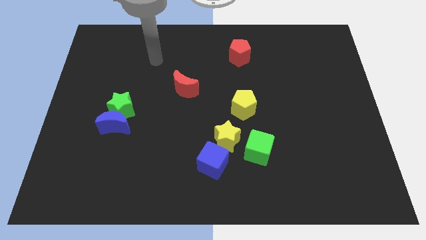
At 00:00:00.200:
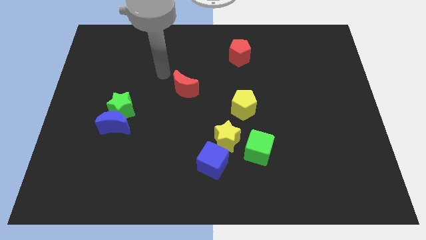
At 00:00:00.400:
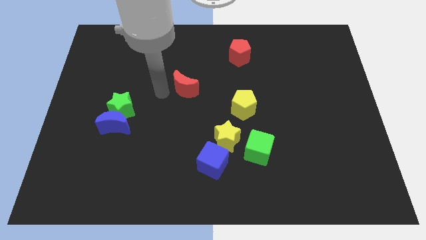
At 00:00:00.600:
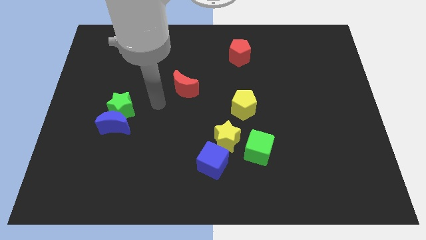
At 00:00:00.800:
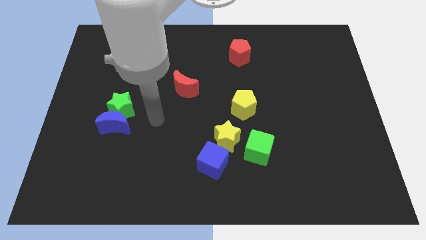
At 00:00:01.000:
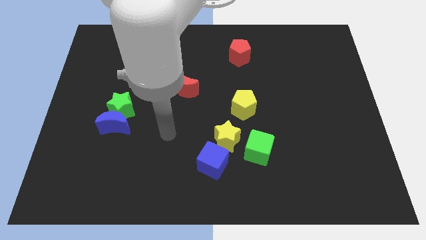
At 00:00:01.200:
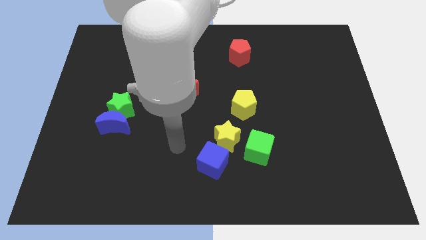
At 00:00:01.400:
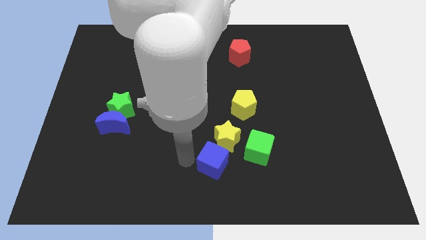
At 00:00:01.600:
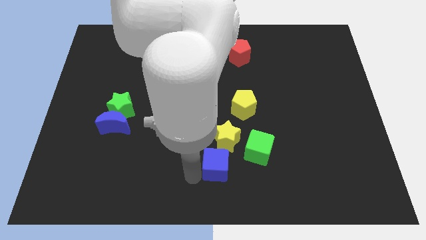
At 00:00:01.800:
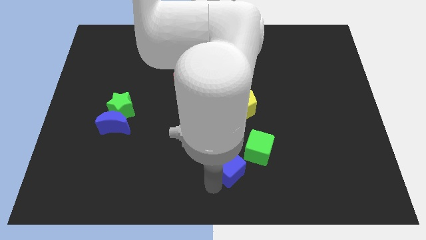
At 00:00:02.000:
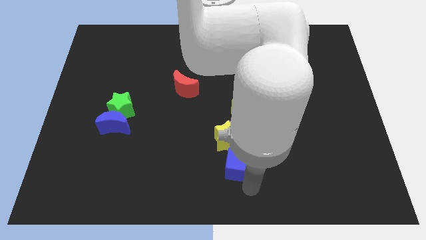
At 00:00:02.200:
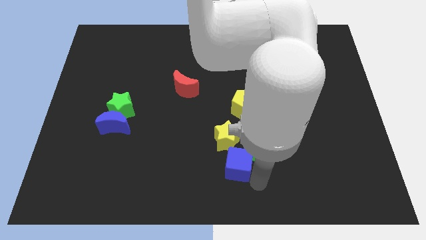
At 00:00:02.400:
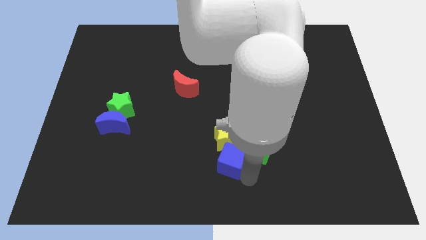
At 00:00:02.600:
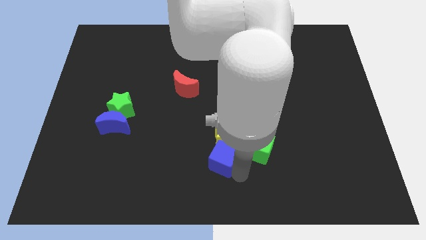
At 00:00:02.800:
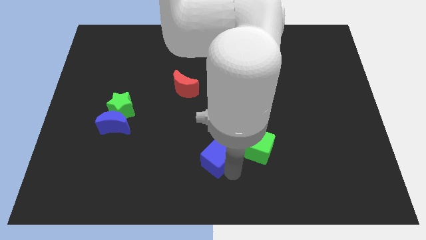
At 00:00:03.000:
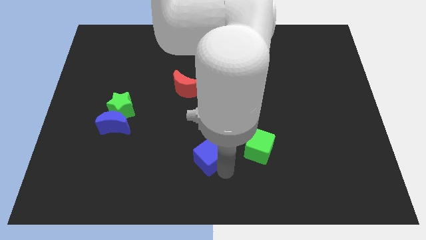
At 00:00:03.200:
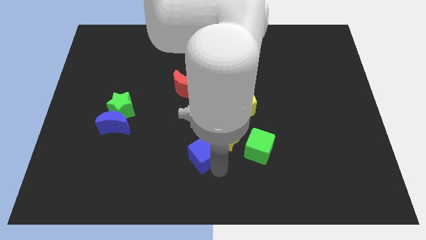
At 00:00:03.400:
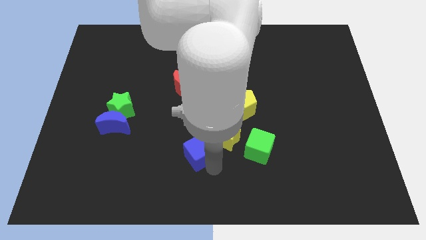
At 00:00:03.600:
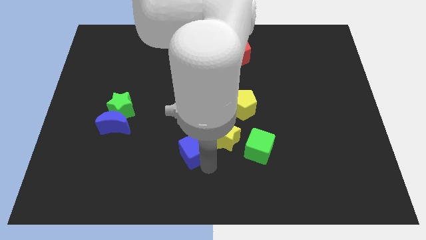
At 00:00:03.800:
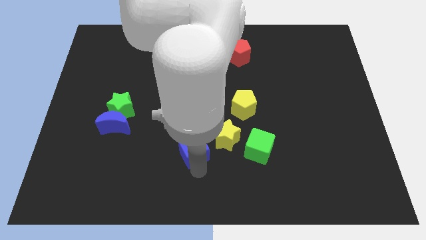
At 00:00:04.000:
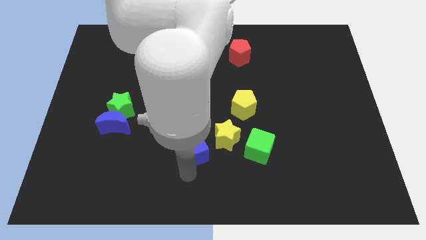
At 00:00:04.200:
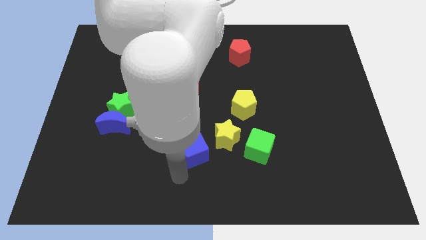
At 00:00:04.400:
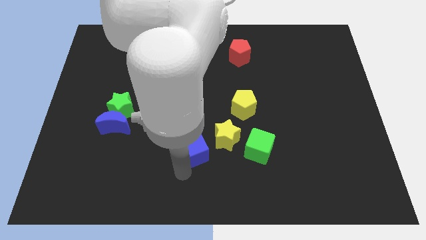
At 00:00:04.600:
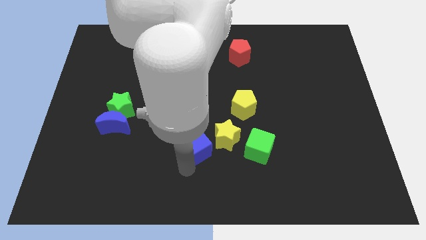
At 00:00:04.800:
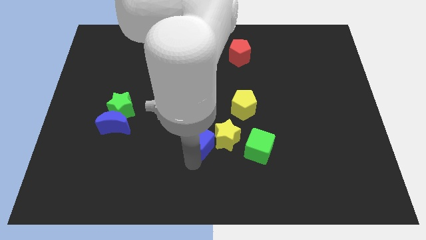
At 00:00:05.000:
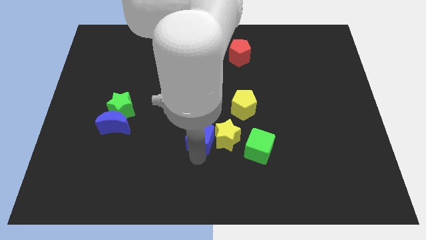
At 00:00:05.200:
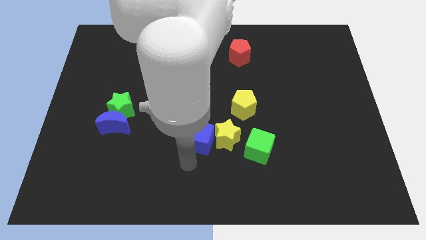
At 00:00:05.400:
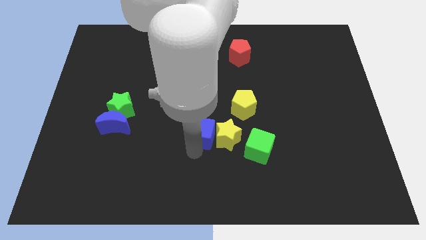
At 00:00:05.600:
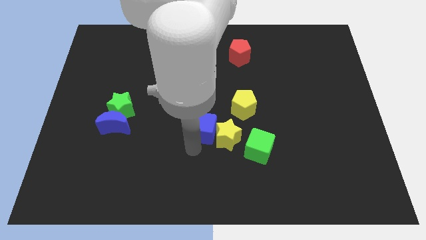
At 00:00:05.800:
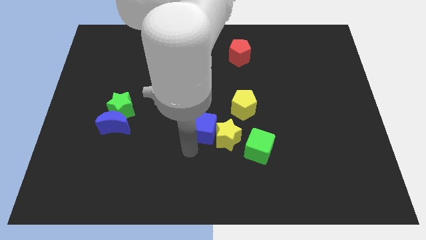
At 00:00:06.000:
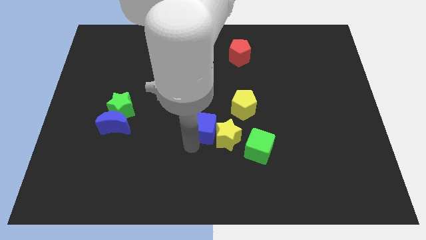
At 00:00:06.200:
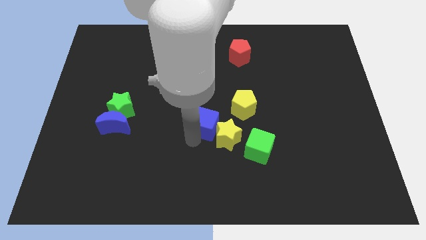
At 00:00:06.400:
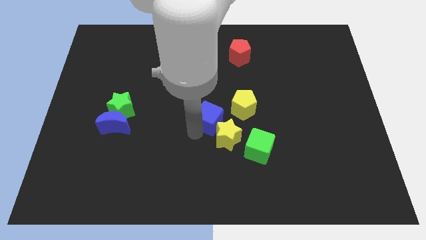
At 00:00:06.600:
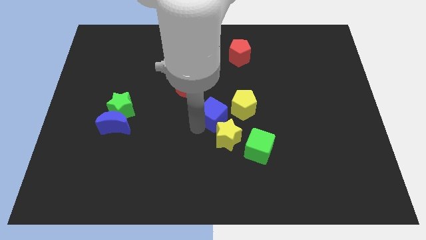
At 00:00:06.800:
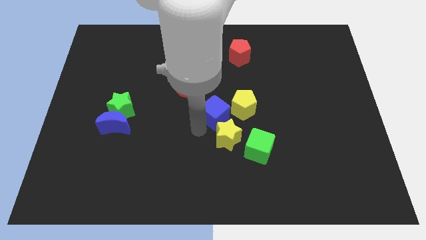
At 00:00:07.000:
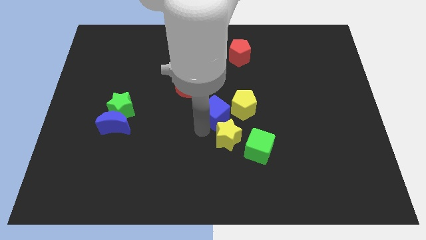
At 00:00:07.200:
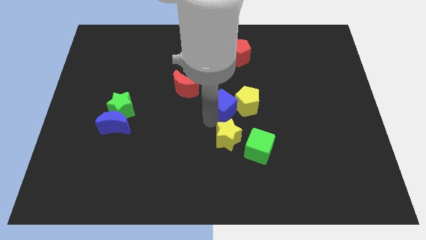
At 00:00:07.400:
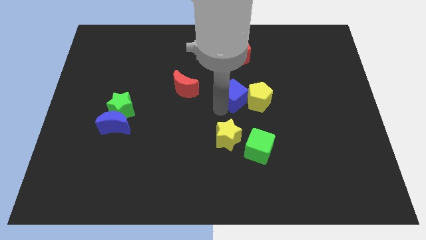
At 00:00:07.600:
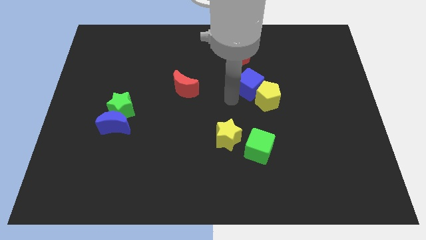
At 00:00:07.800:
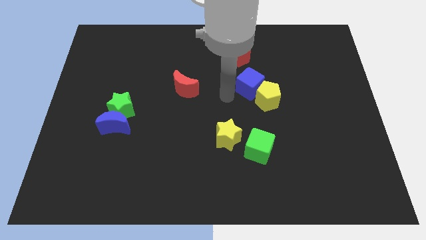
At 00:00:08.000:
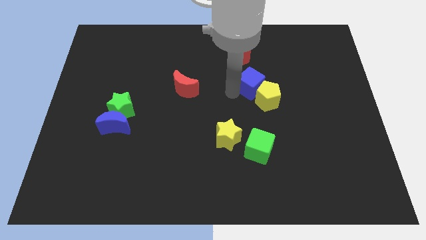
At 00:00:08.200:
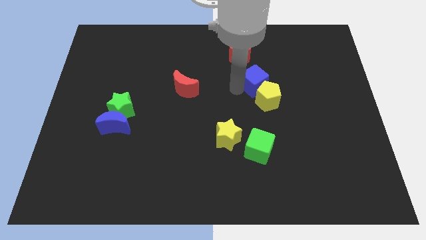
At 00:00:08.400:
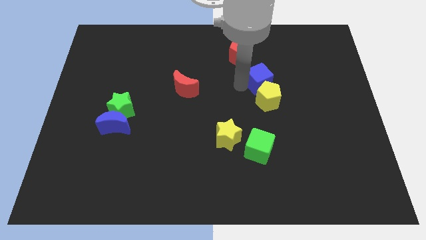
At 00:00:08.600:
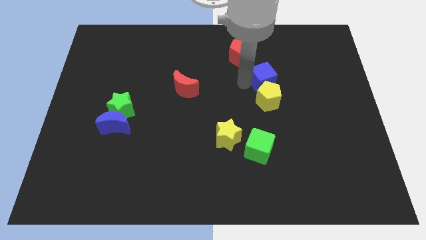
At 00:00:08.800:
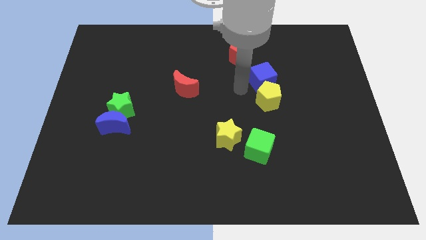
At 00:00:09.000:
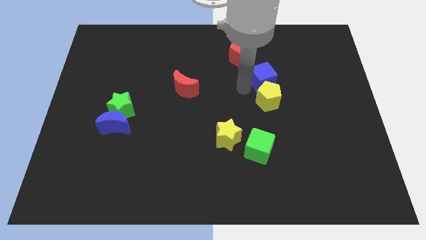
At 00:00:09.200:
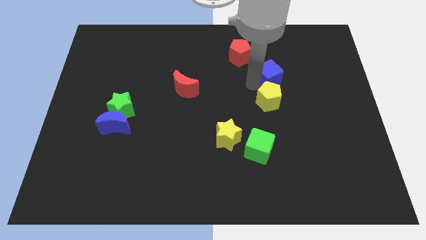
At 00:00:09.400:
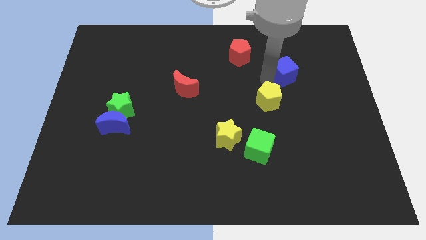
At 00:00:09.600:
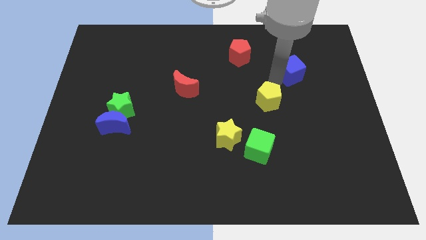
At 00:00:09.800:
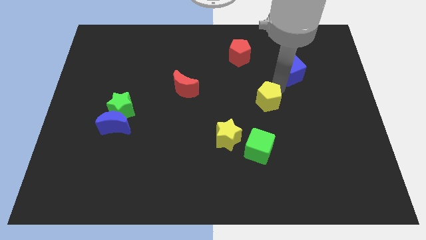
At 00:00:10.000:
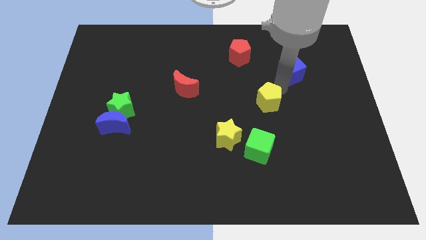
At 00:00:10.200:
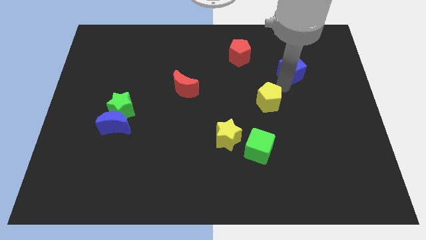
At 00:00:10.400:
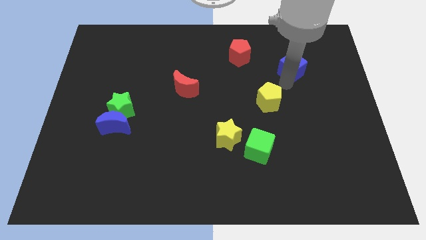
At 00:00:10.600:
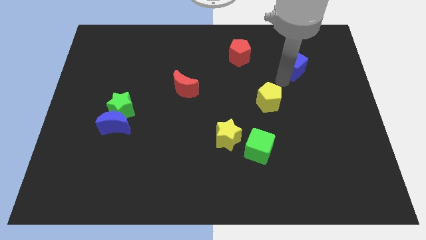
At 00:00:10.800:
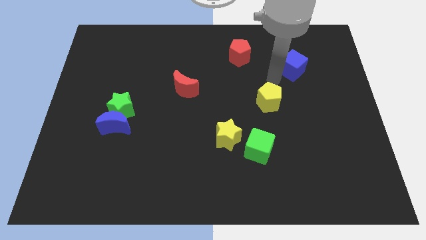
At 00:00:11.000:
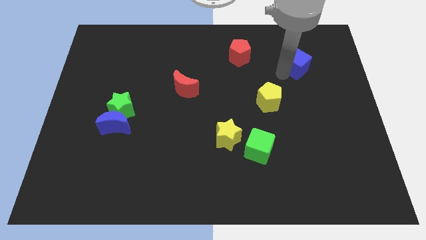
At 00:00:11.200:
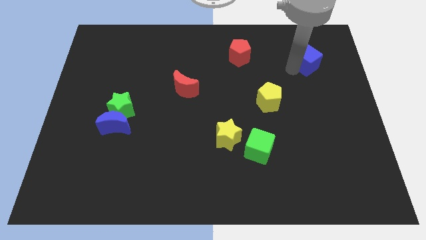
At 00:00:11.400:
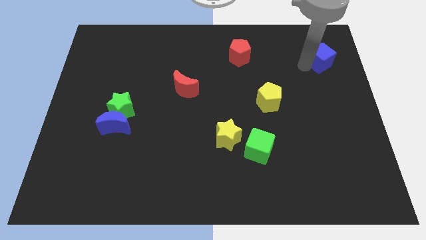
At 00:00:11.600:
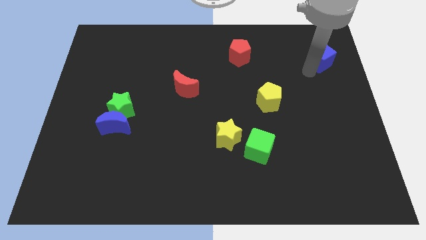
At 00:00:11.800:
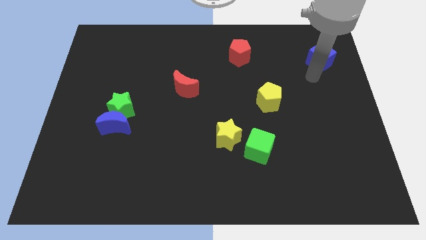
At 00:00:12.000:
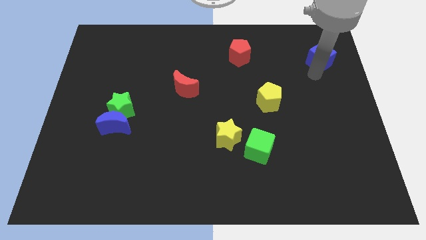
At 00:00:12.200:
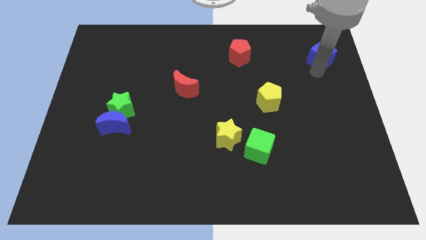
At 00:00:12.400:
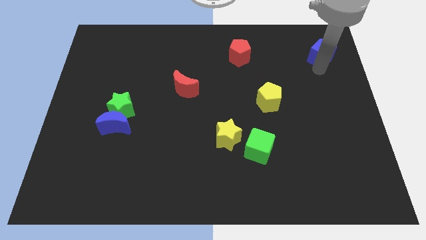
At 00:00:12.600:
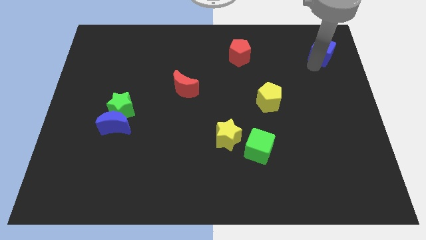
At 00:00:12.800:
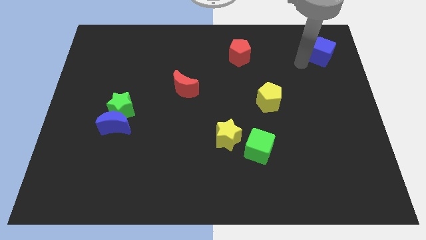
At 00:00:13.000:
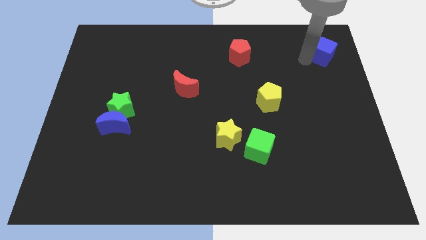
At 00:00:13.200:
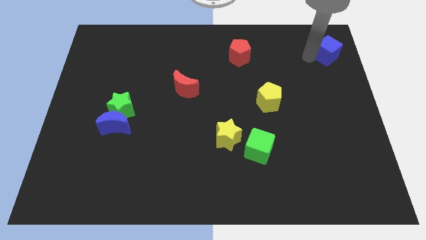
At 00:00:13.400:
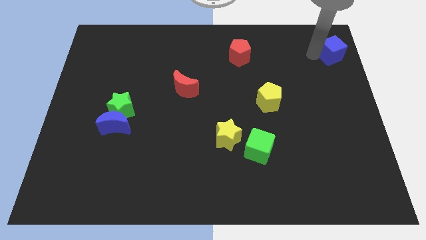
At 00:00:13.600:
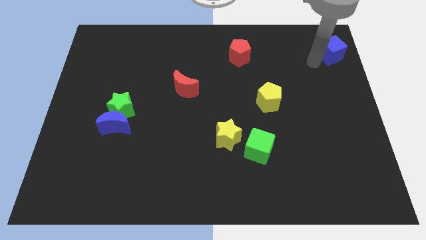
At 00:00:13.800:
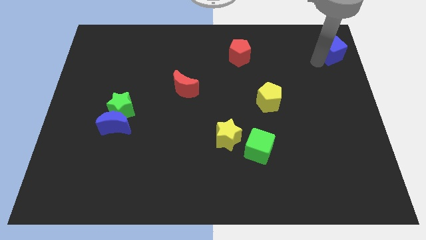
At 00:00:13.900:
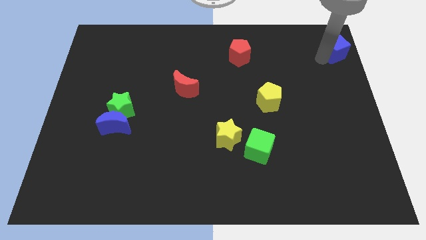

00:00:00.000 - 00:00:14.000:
slide the blue cube to the top right corner

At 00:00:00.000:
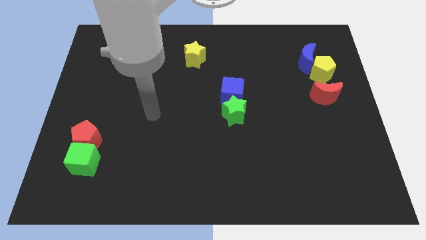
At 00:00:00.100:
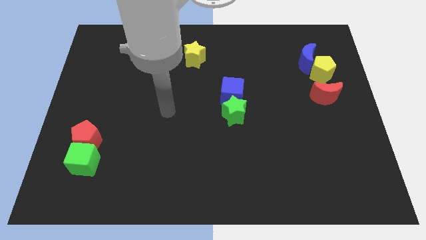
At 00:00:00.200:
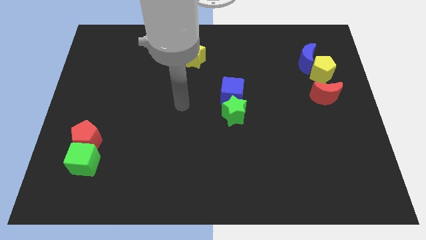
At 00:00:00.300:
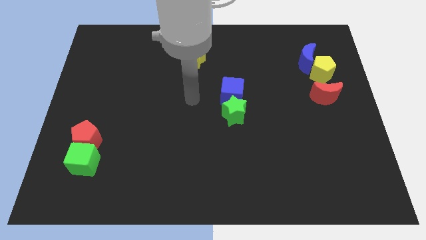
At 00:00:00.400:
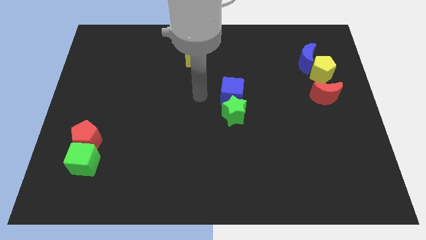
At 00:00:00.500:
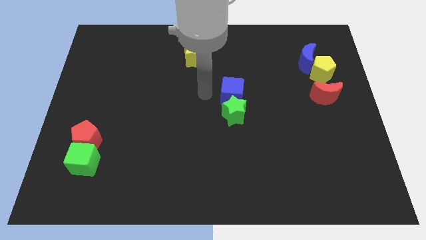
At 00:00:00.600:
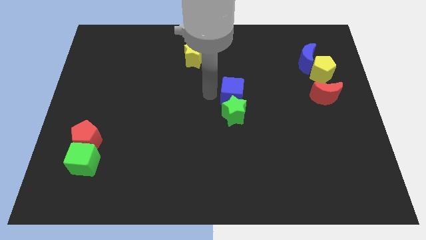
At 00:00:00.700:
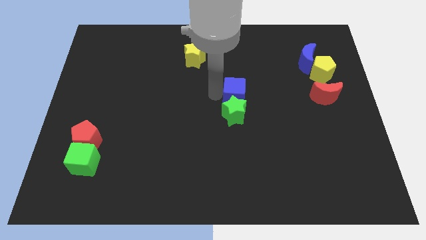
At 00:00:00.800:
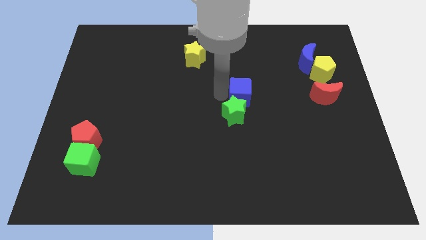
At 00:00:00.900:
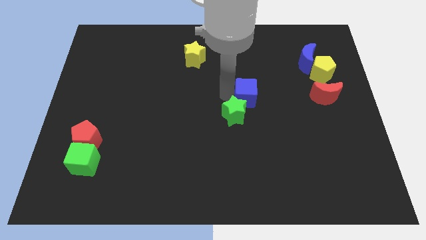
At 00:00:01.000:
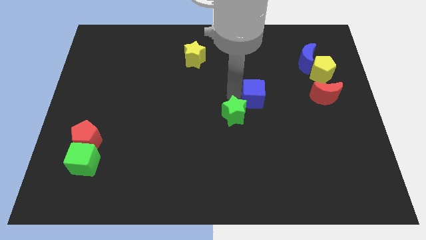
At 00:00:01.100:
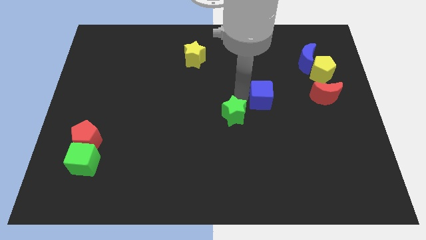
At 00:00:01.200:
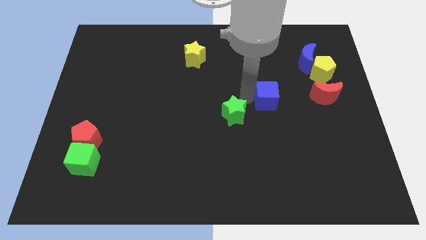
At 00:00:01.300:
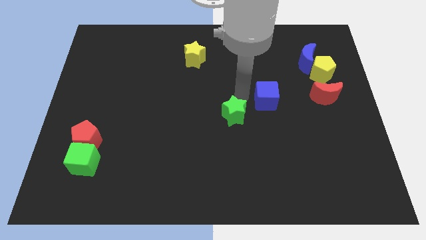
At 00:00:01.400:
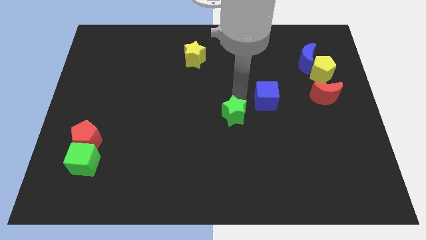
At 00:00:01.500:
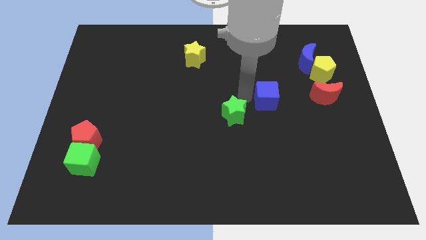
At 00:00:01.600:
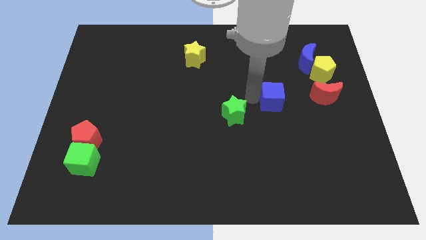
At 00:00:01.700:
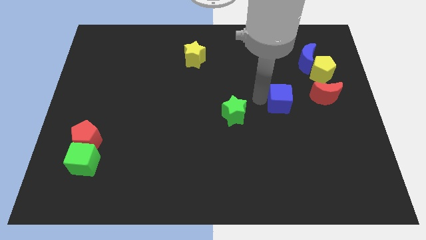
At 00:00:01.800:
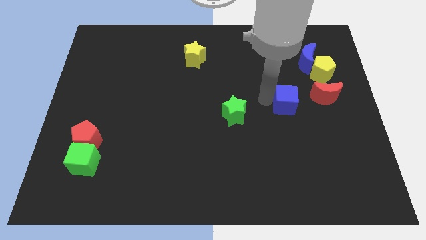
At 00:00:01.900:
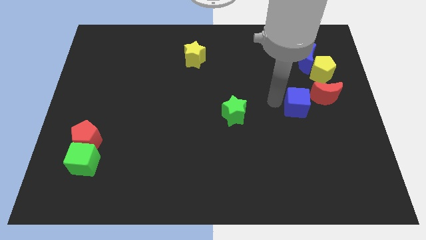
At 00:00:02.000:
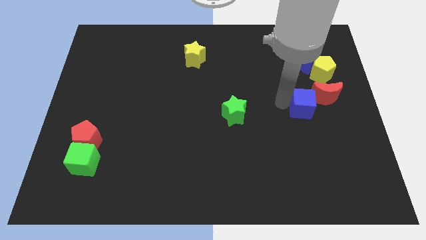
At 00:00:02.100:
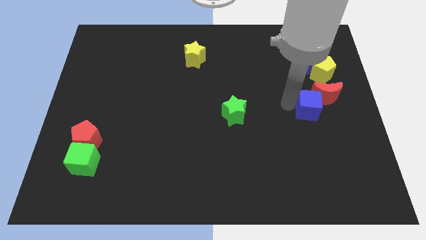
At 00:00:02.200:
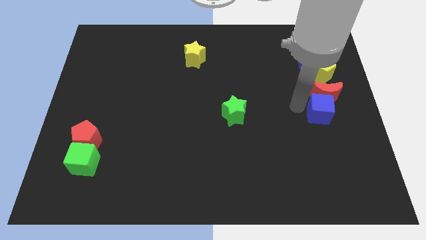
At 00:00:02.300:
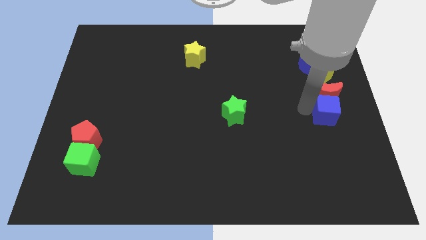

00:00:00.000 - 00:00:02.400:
put the blue cube to the right side
